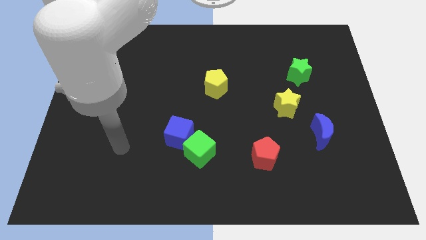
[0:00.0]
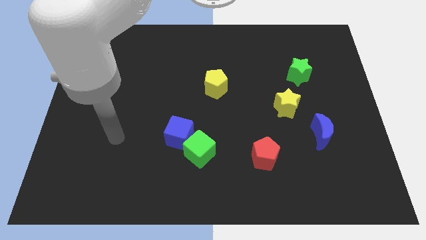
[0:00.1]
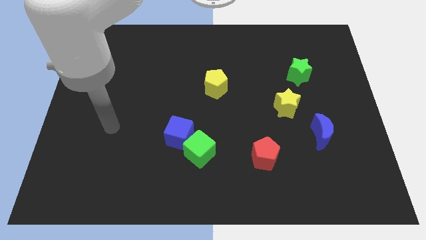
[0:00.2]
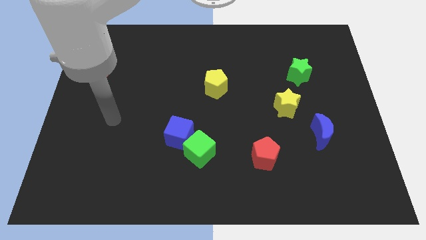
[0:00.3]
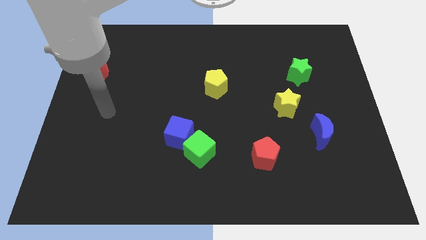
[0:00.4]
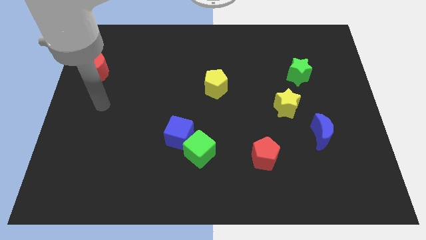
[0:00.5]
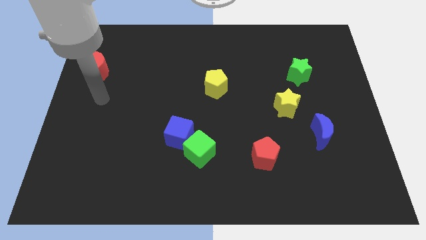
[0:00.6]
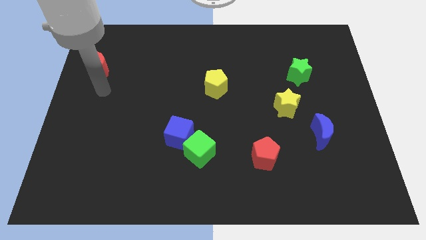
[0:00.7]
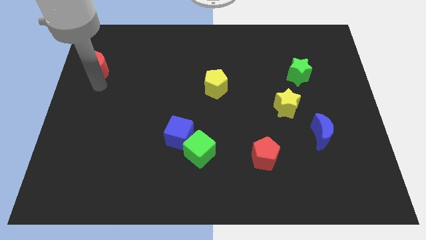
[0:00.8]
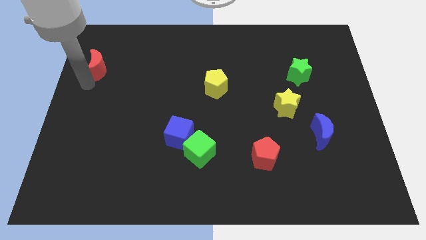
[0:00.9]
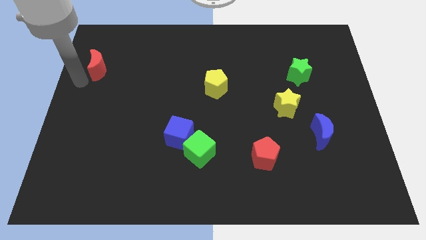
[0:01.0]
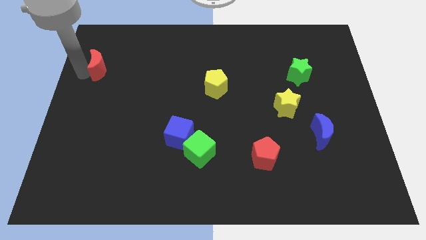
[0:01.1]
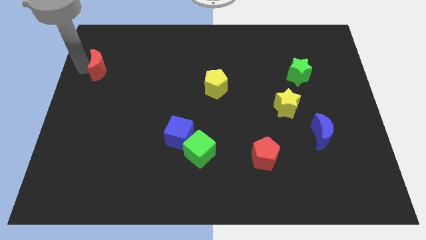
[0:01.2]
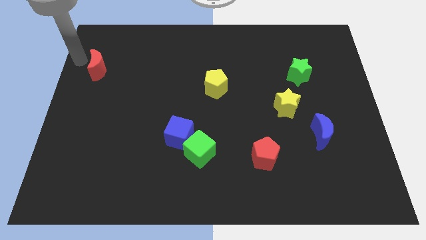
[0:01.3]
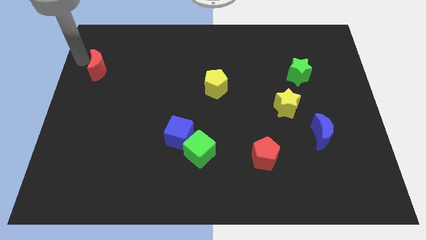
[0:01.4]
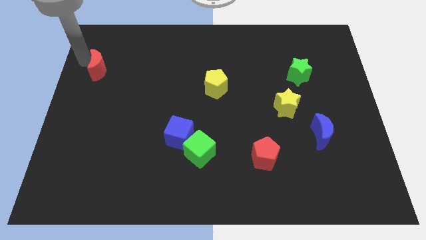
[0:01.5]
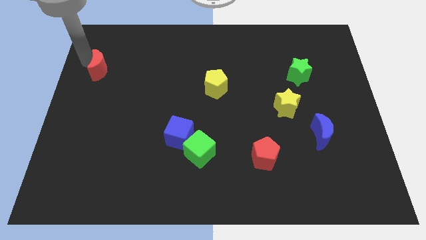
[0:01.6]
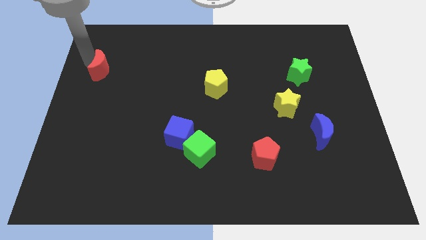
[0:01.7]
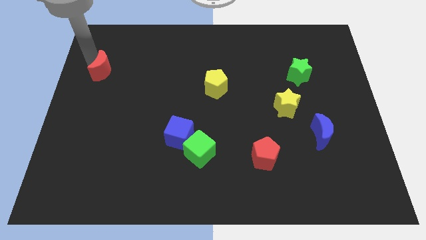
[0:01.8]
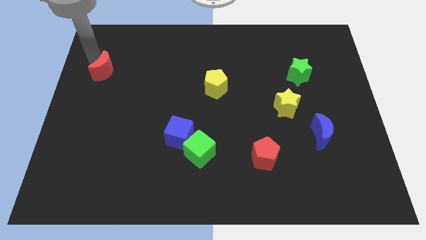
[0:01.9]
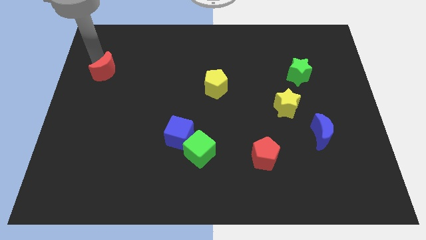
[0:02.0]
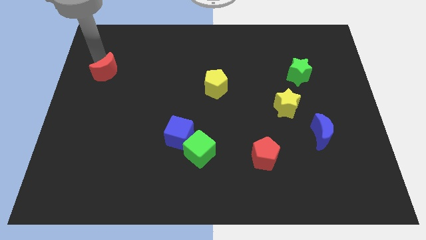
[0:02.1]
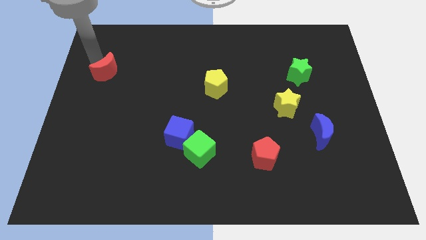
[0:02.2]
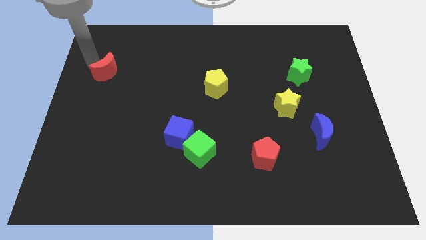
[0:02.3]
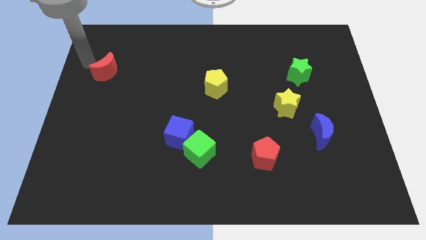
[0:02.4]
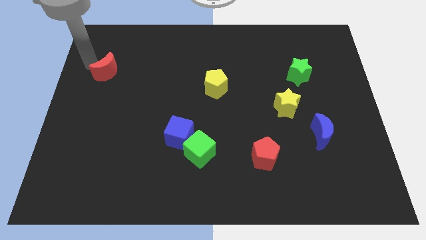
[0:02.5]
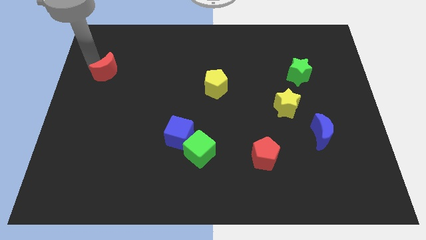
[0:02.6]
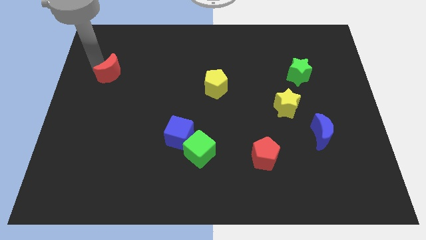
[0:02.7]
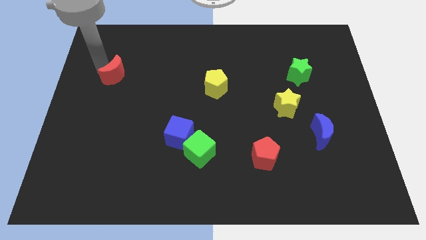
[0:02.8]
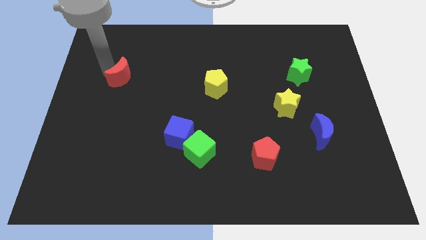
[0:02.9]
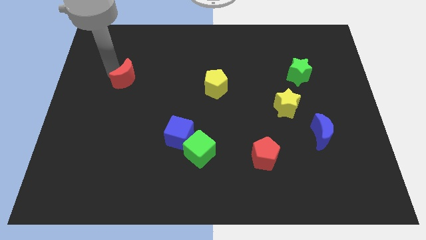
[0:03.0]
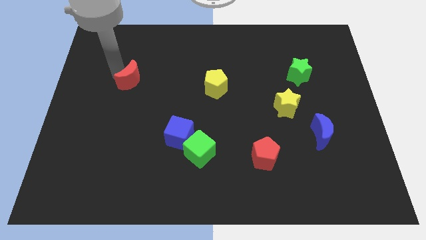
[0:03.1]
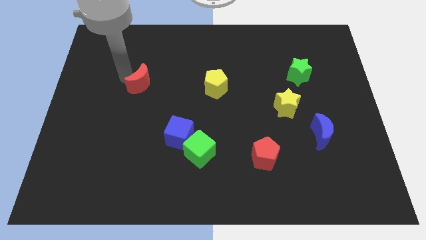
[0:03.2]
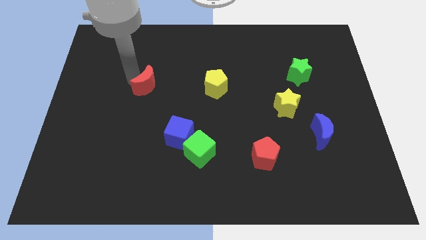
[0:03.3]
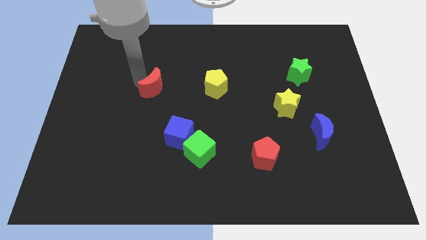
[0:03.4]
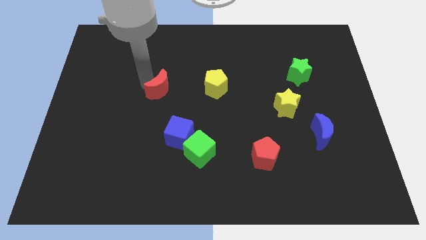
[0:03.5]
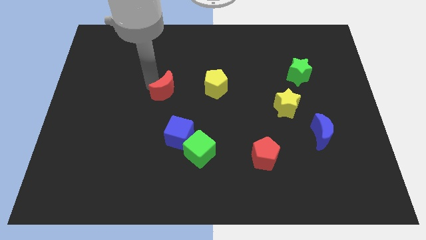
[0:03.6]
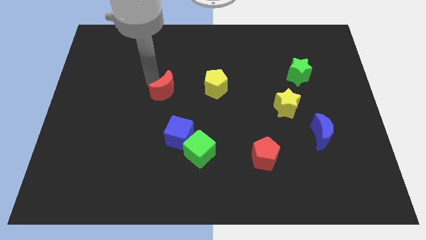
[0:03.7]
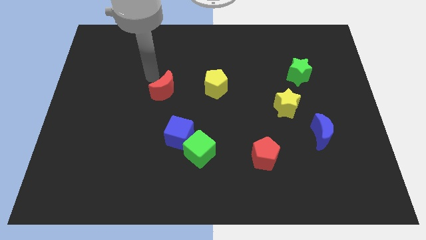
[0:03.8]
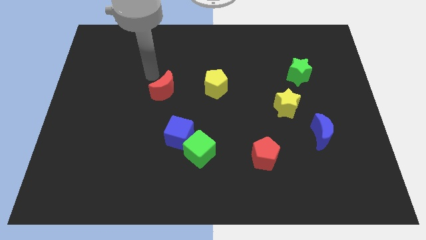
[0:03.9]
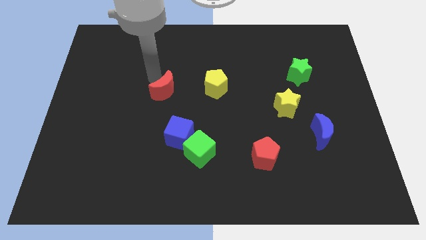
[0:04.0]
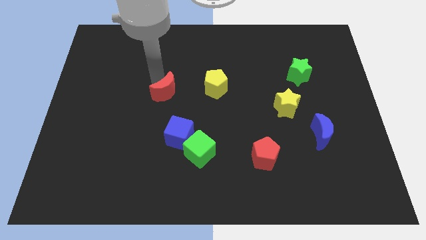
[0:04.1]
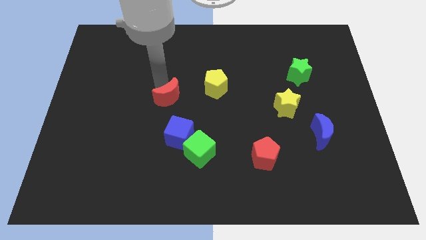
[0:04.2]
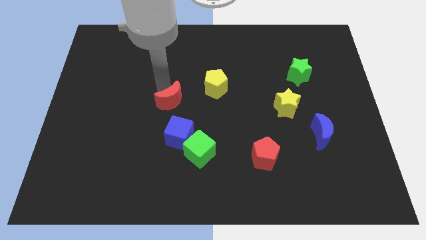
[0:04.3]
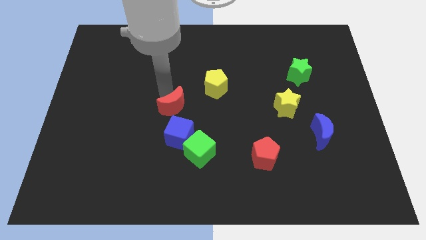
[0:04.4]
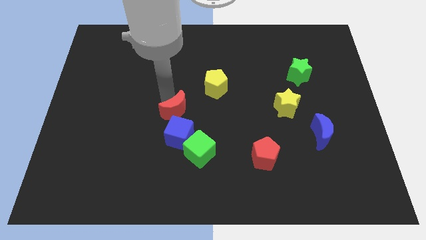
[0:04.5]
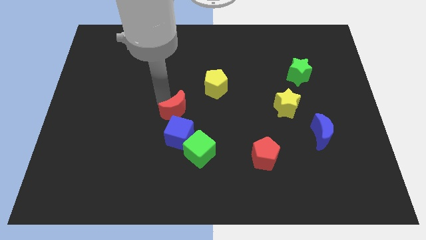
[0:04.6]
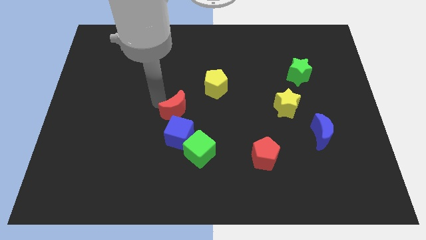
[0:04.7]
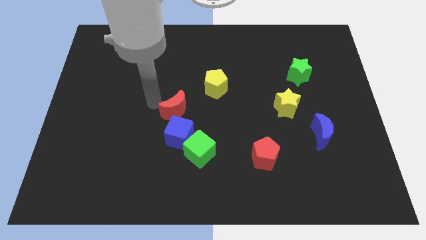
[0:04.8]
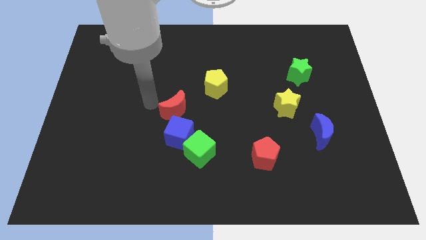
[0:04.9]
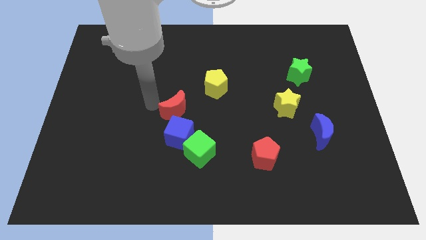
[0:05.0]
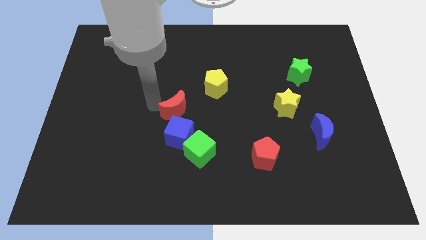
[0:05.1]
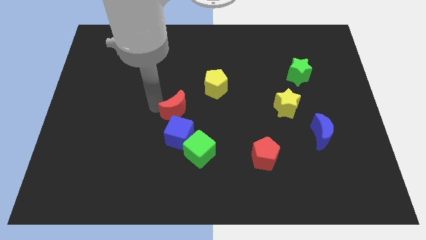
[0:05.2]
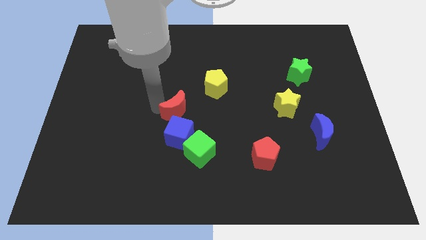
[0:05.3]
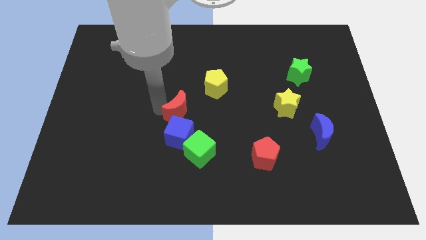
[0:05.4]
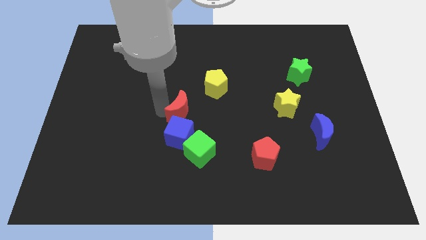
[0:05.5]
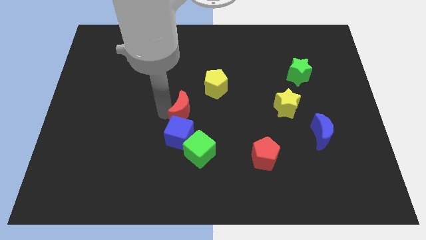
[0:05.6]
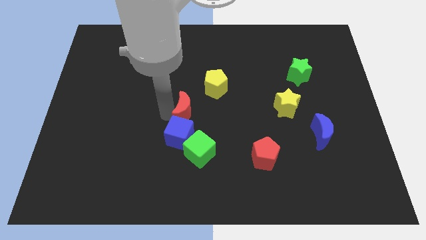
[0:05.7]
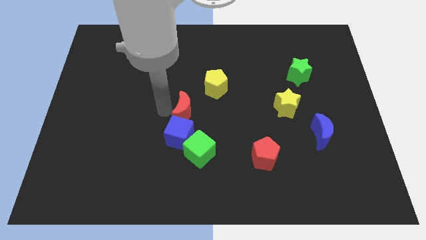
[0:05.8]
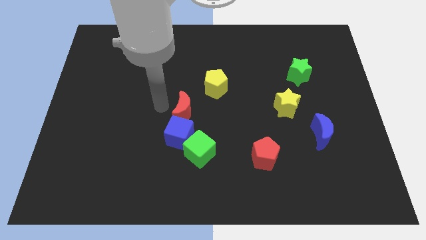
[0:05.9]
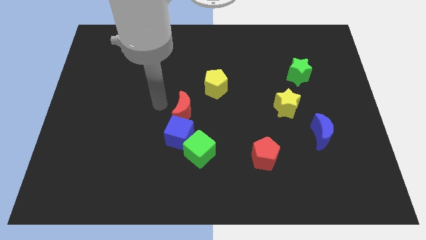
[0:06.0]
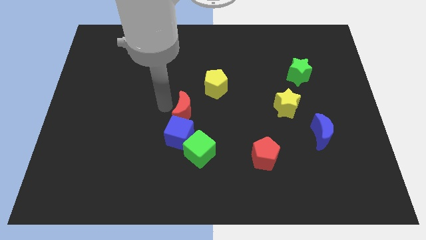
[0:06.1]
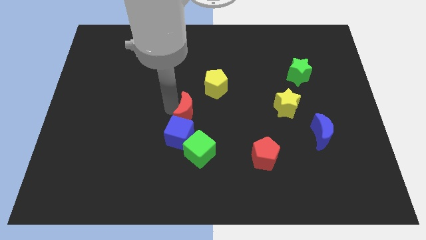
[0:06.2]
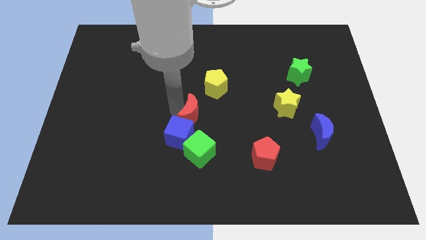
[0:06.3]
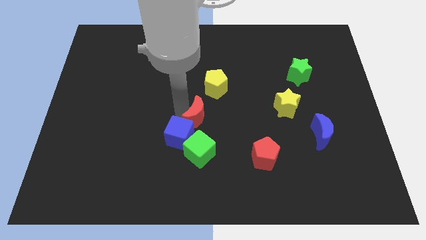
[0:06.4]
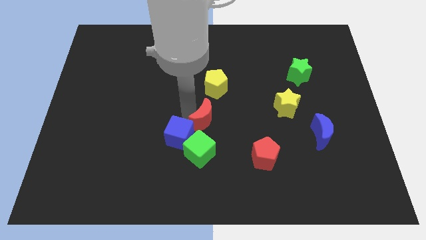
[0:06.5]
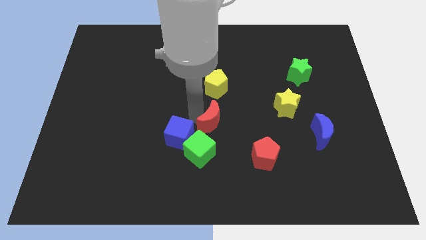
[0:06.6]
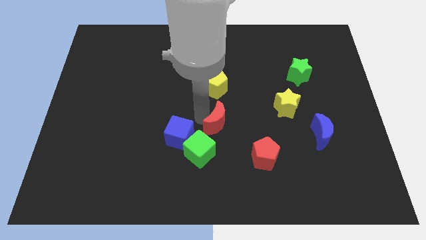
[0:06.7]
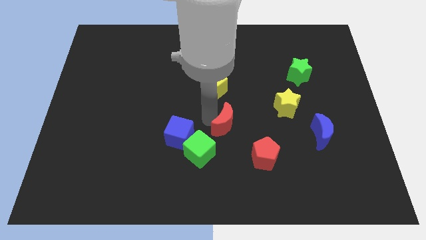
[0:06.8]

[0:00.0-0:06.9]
push the red moon diagonally up and to the left of the red pentagon
